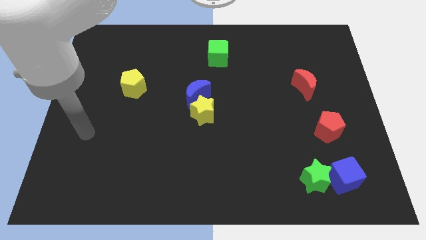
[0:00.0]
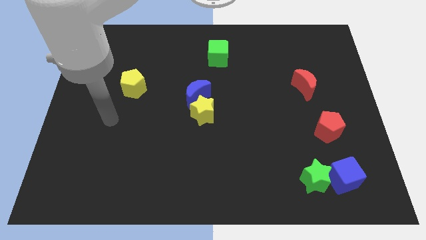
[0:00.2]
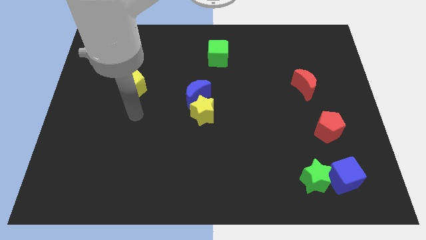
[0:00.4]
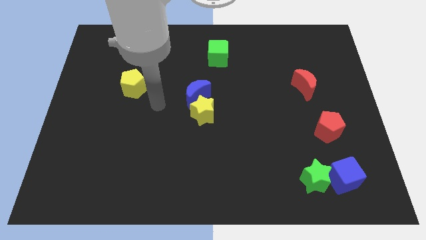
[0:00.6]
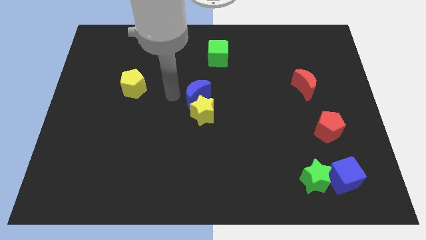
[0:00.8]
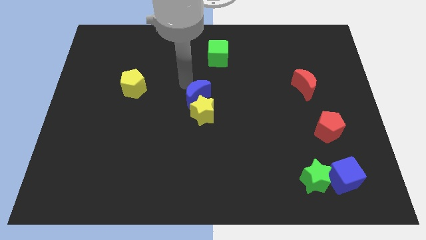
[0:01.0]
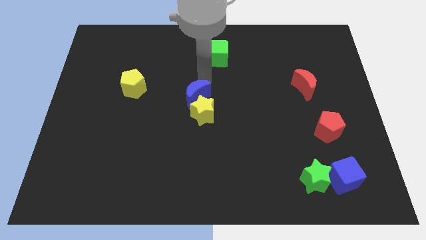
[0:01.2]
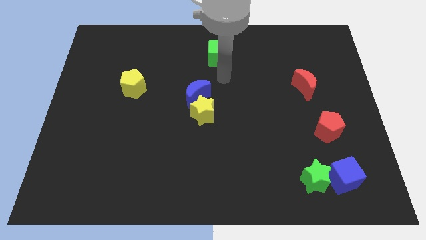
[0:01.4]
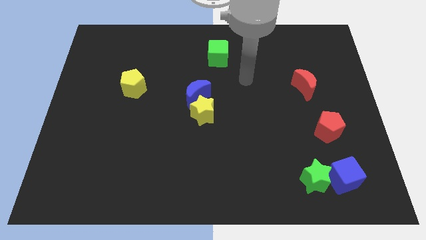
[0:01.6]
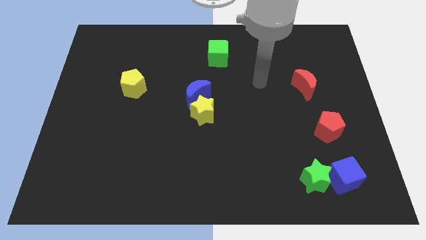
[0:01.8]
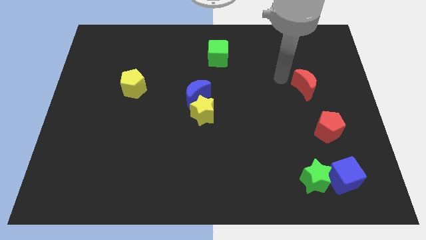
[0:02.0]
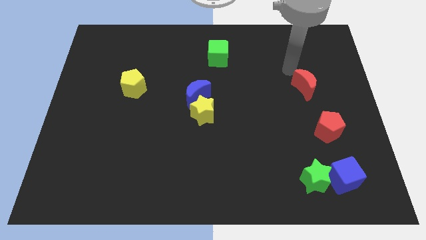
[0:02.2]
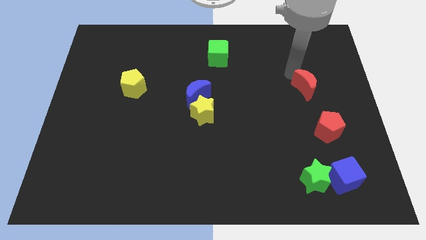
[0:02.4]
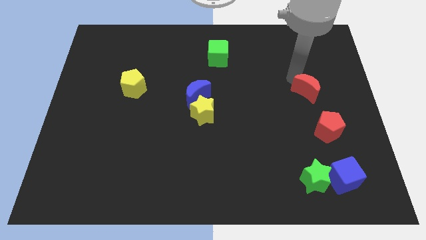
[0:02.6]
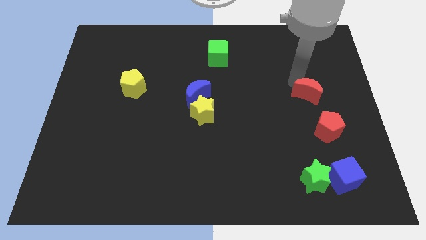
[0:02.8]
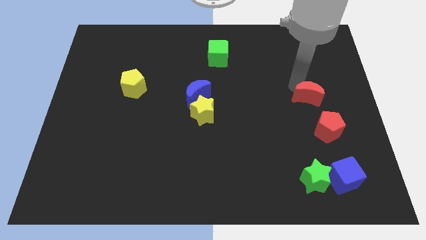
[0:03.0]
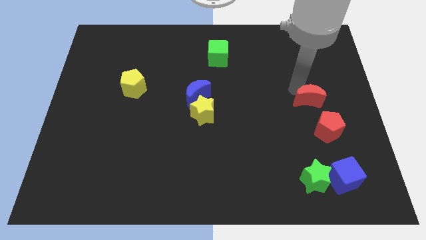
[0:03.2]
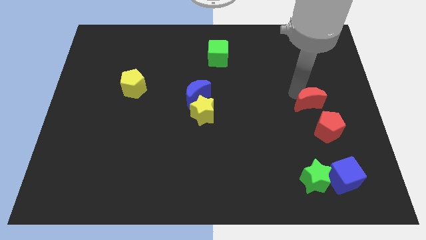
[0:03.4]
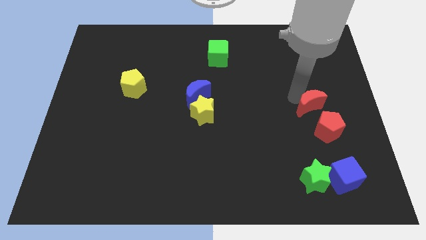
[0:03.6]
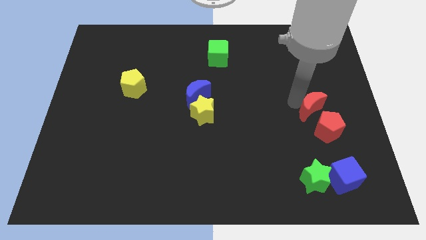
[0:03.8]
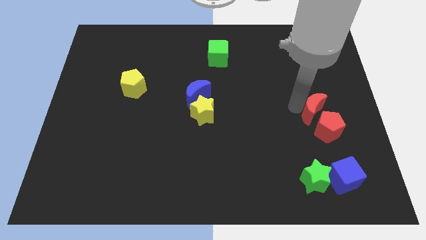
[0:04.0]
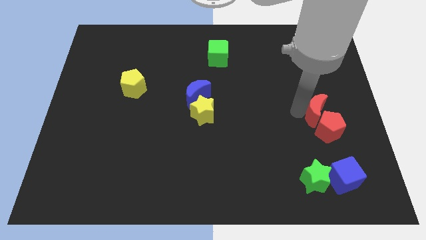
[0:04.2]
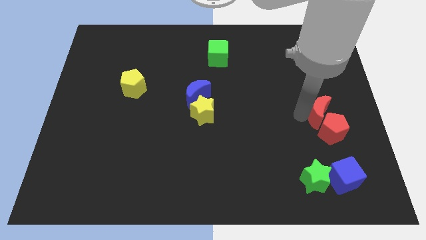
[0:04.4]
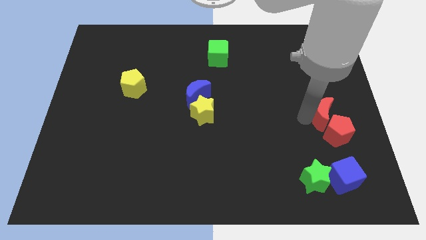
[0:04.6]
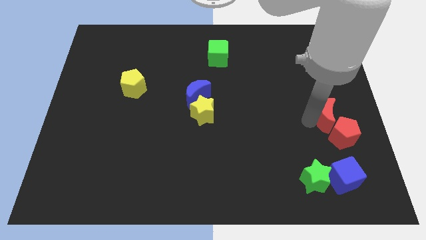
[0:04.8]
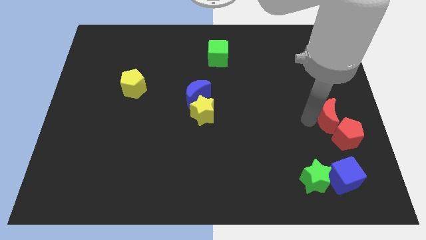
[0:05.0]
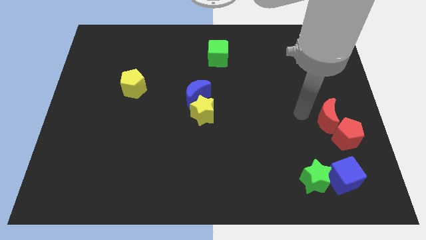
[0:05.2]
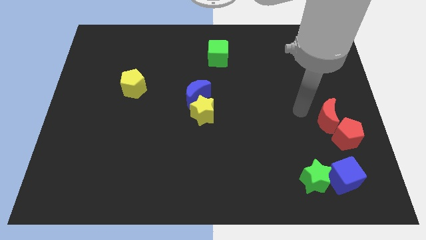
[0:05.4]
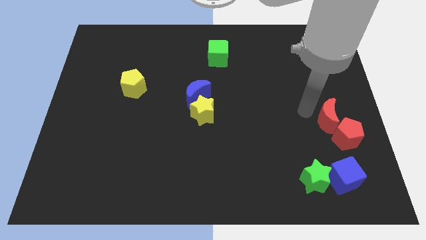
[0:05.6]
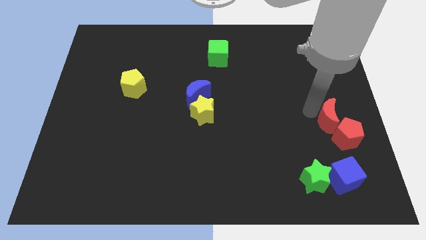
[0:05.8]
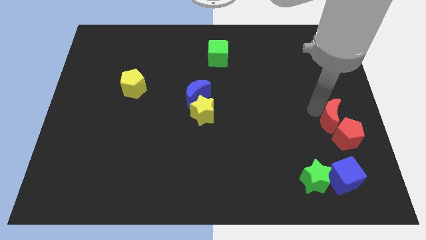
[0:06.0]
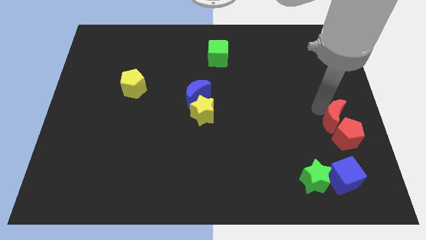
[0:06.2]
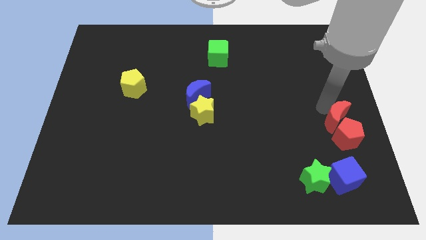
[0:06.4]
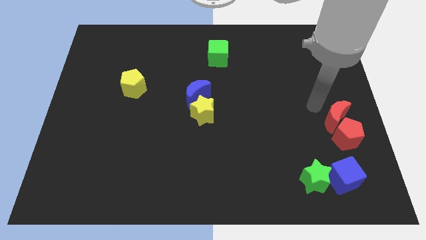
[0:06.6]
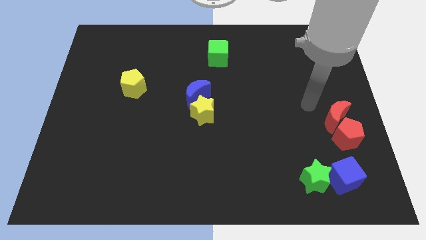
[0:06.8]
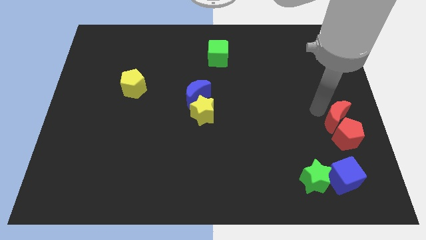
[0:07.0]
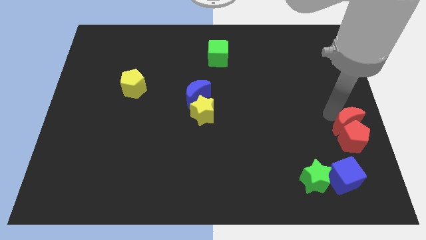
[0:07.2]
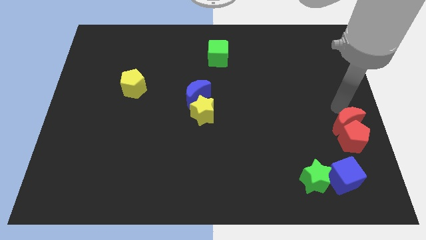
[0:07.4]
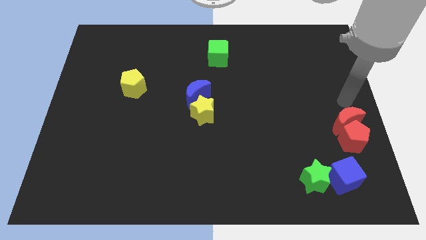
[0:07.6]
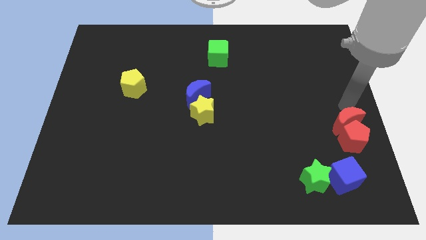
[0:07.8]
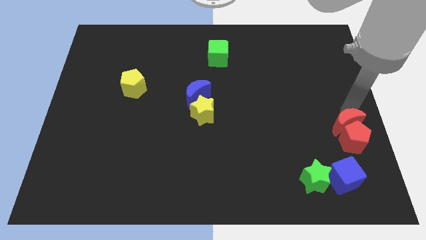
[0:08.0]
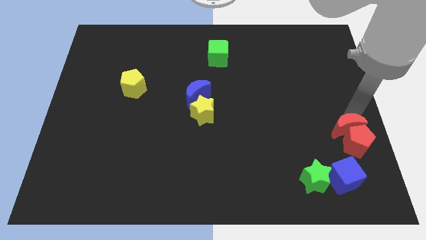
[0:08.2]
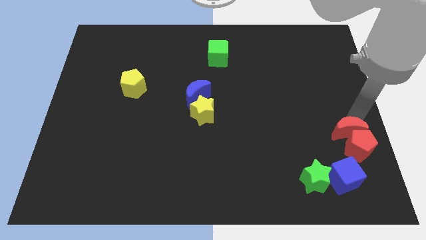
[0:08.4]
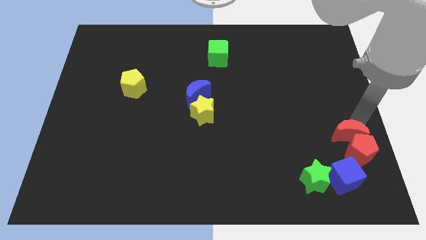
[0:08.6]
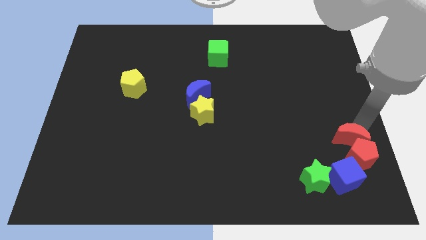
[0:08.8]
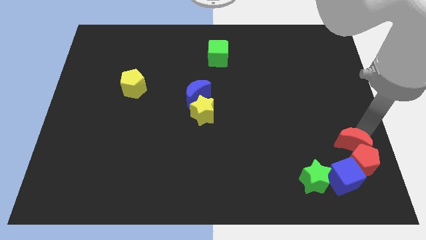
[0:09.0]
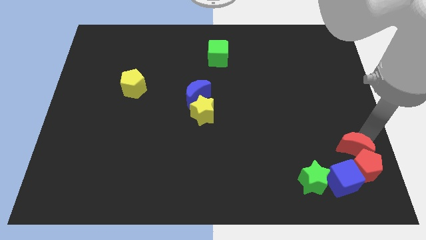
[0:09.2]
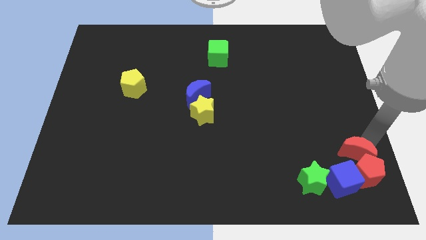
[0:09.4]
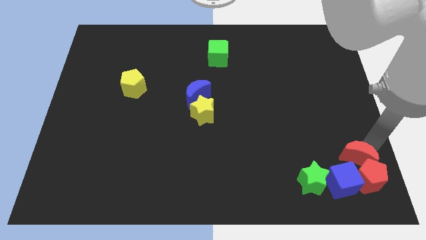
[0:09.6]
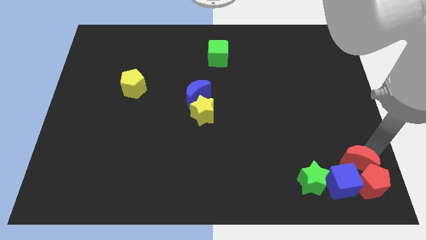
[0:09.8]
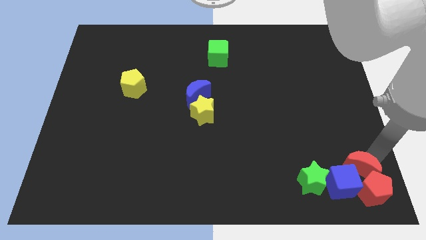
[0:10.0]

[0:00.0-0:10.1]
move the red moon close to the blue cube

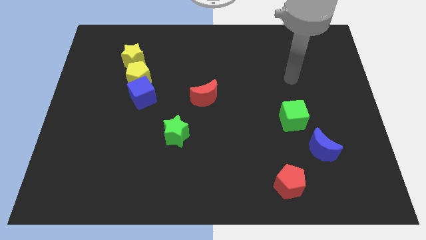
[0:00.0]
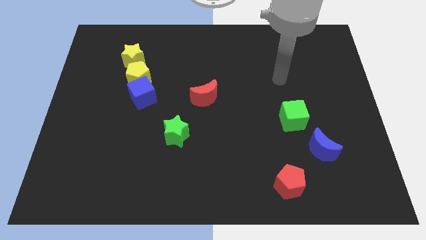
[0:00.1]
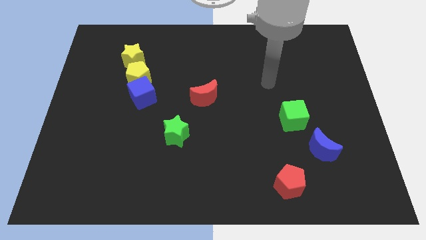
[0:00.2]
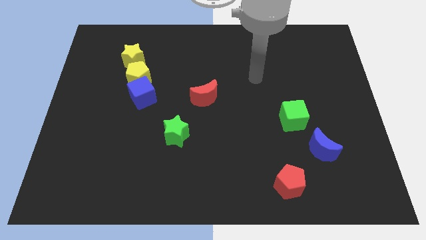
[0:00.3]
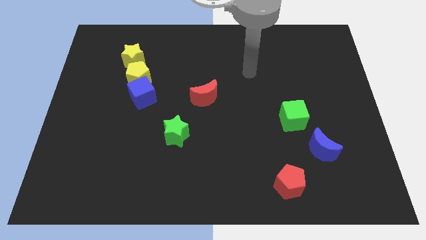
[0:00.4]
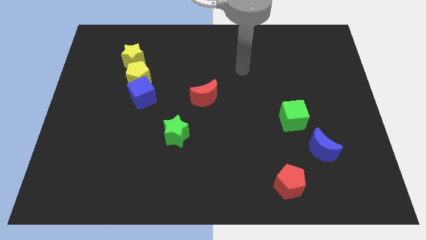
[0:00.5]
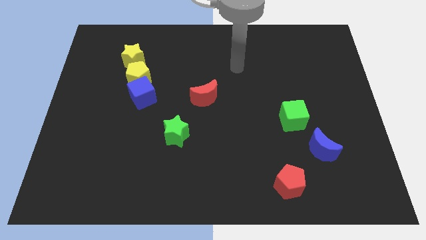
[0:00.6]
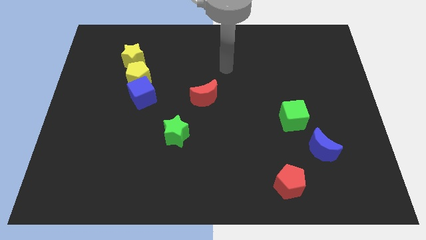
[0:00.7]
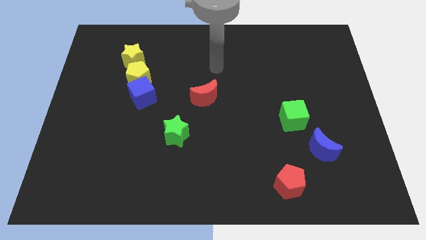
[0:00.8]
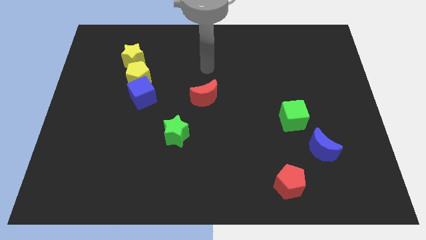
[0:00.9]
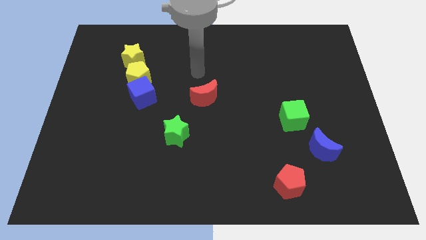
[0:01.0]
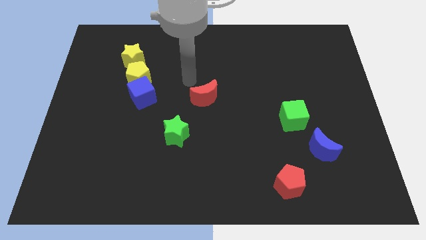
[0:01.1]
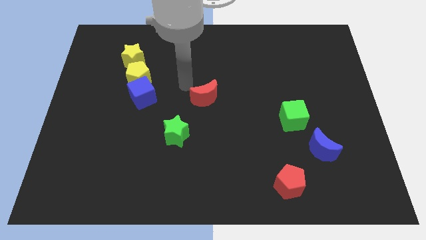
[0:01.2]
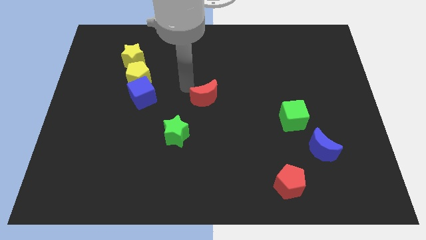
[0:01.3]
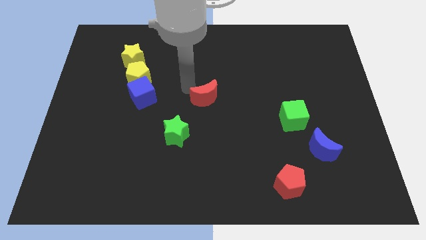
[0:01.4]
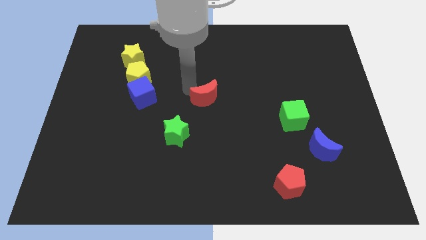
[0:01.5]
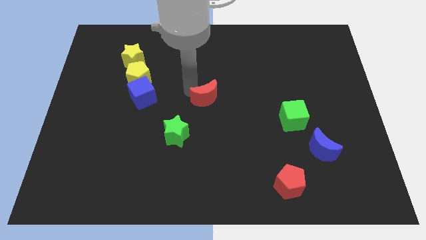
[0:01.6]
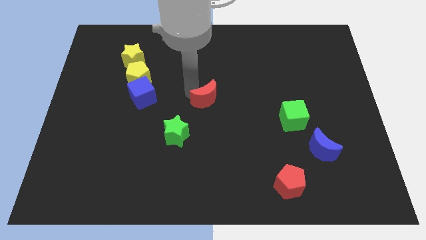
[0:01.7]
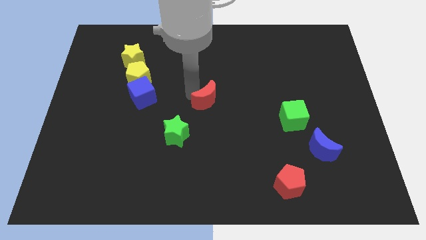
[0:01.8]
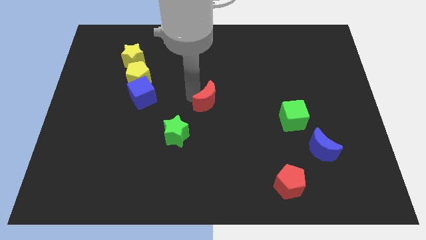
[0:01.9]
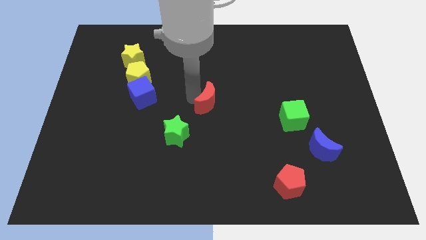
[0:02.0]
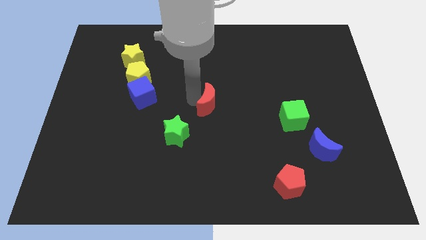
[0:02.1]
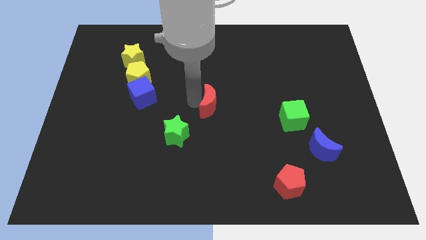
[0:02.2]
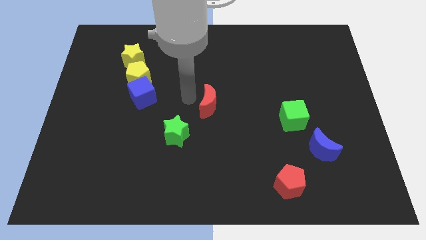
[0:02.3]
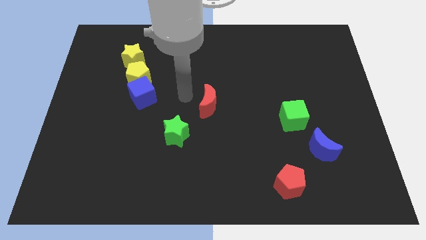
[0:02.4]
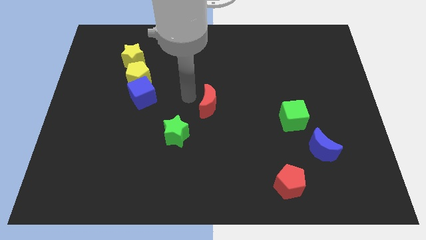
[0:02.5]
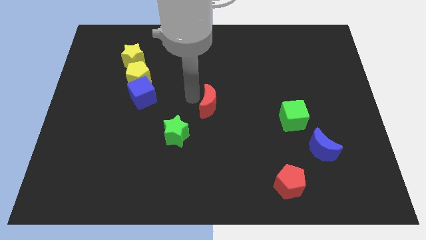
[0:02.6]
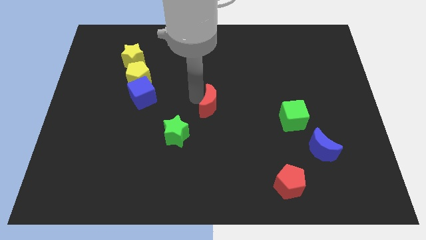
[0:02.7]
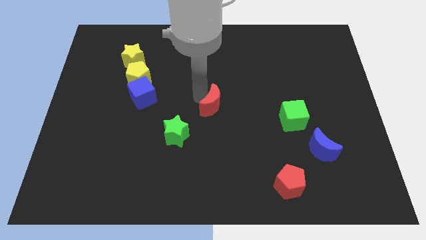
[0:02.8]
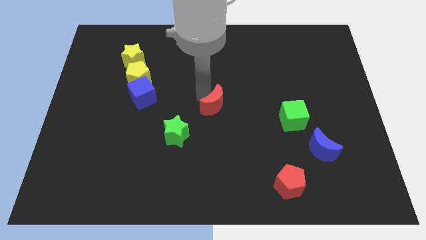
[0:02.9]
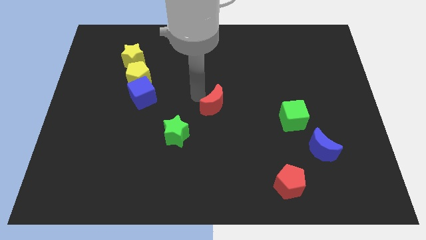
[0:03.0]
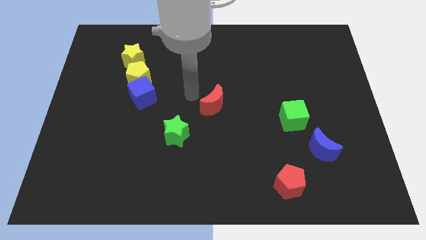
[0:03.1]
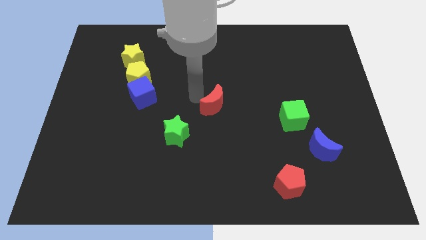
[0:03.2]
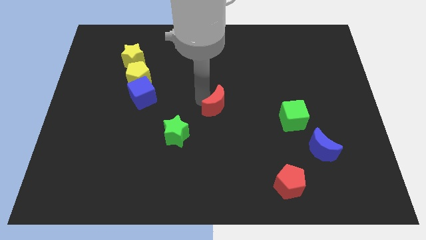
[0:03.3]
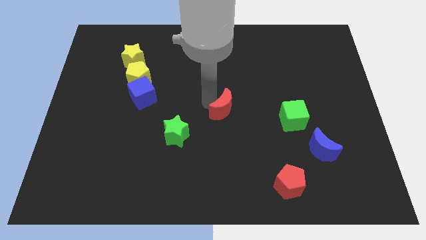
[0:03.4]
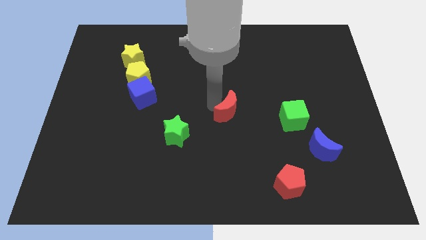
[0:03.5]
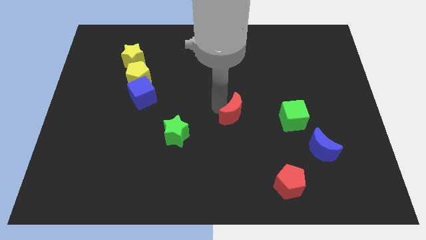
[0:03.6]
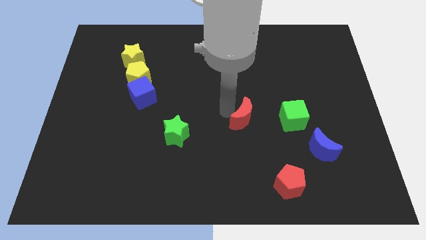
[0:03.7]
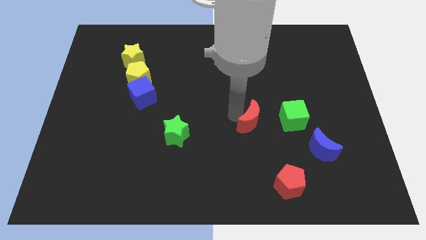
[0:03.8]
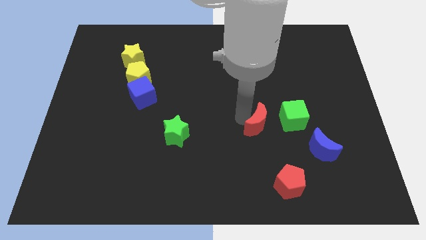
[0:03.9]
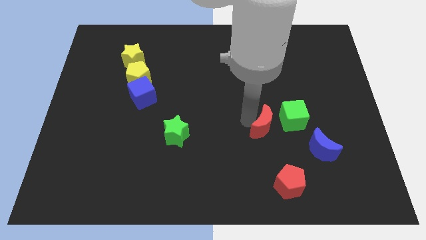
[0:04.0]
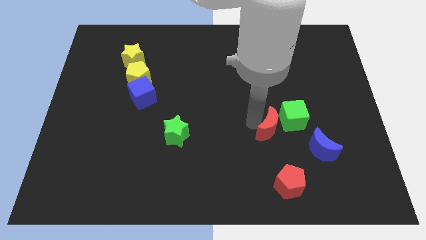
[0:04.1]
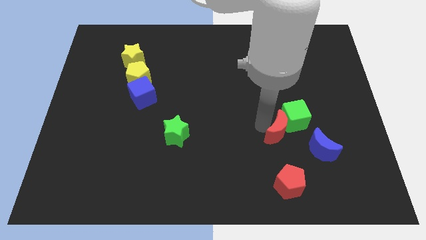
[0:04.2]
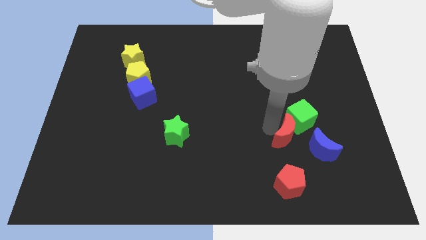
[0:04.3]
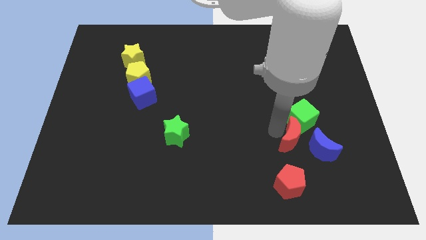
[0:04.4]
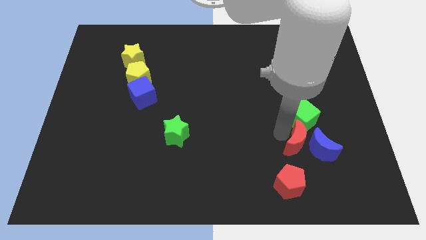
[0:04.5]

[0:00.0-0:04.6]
push the red moon next to the blue moon
